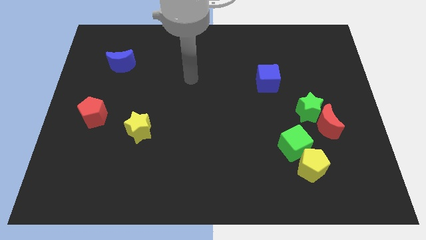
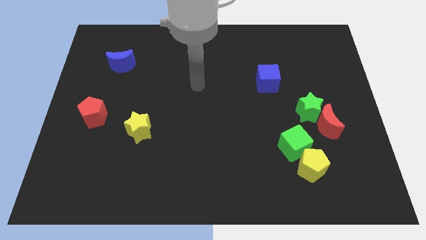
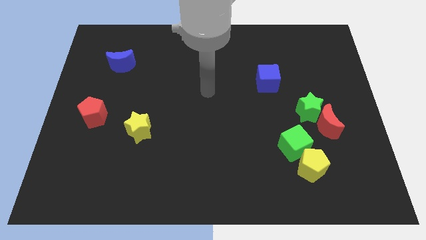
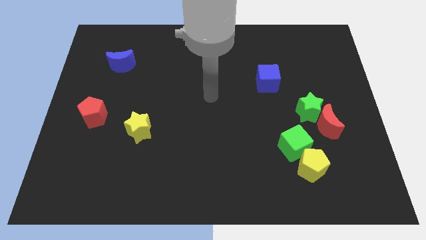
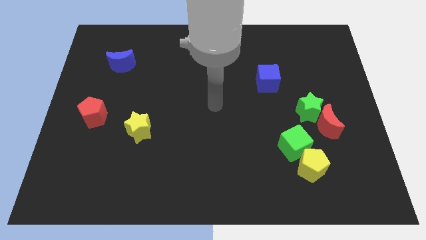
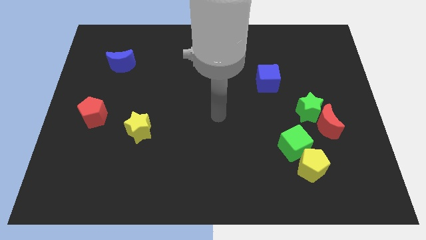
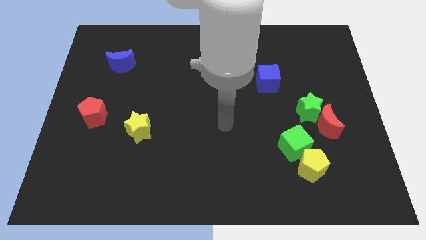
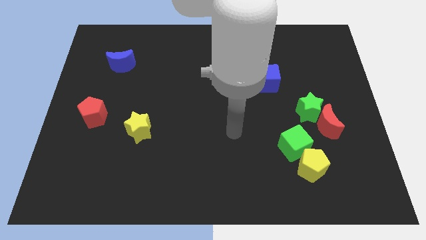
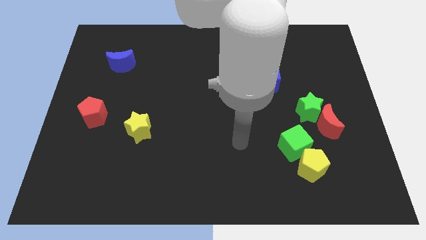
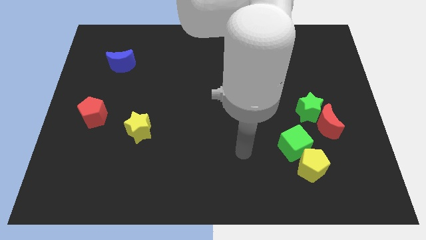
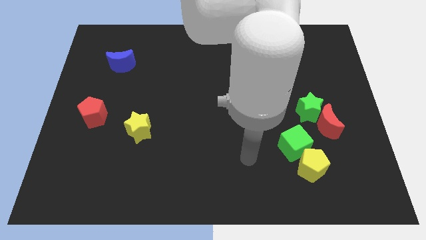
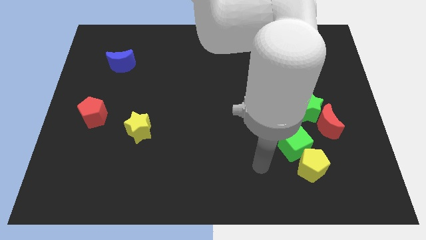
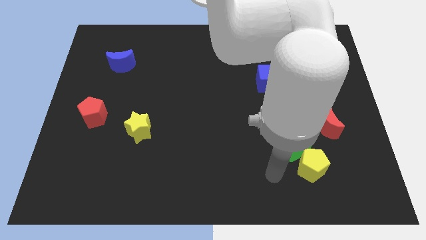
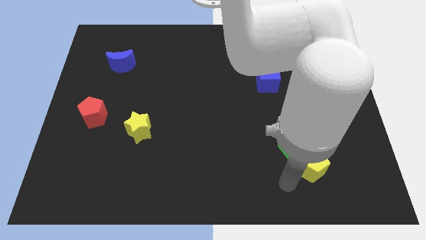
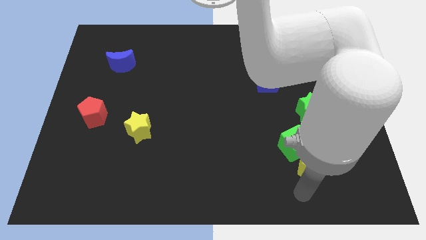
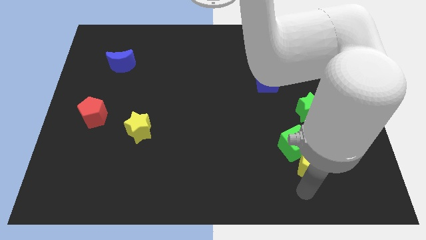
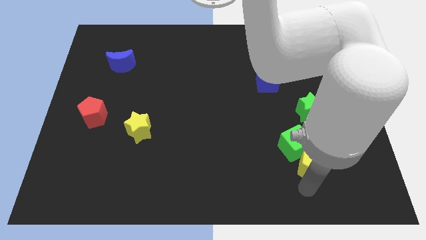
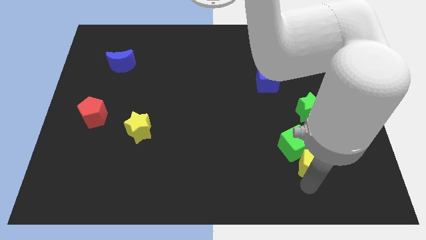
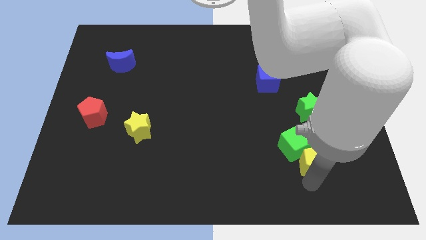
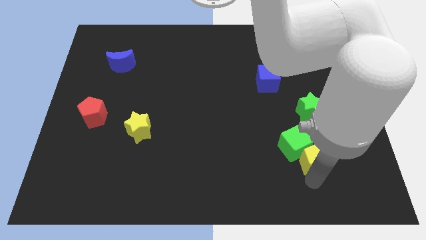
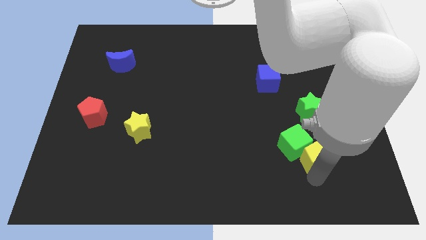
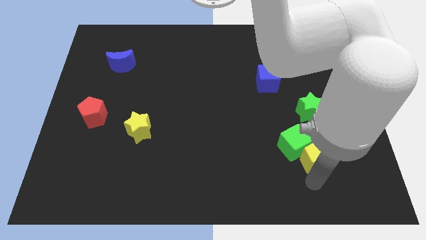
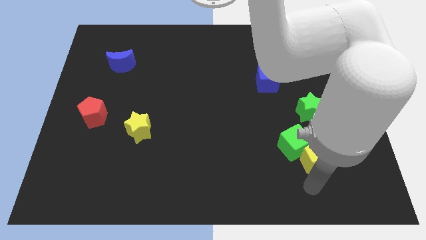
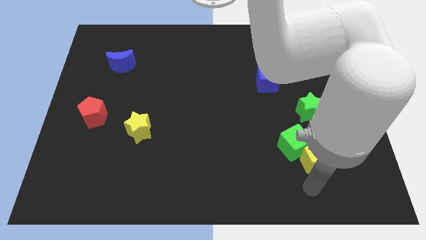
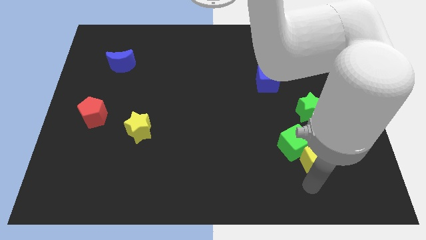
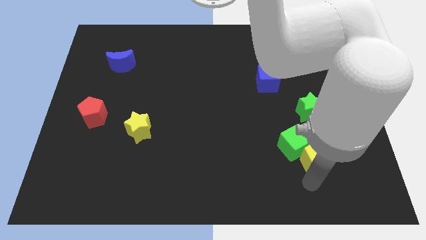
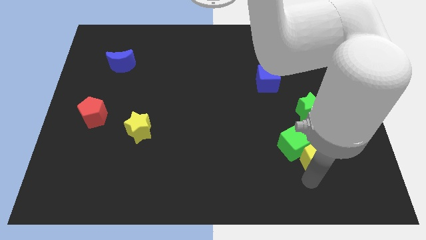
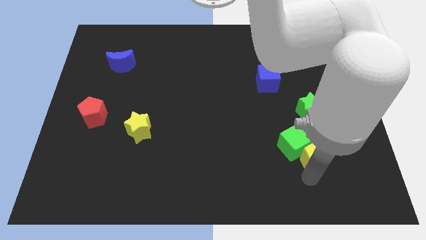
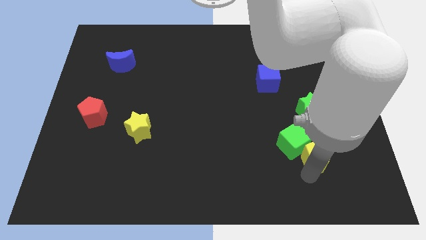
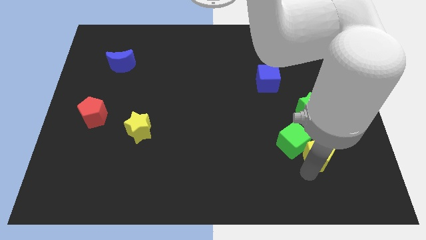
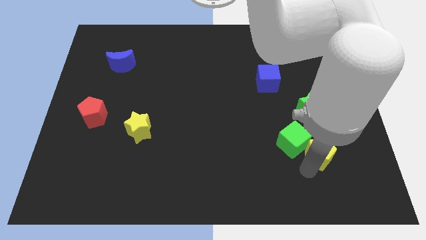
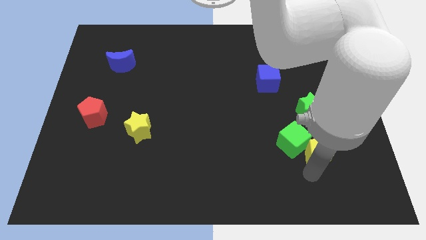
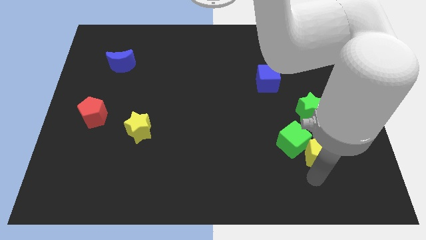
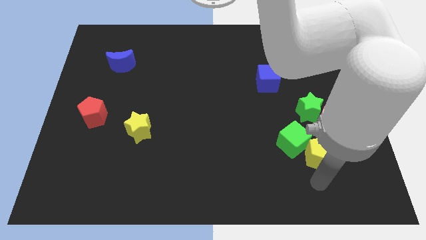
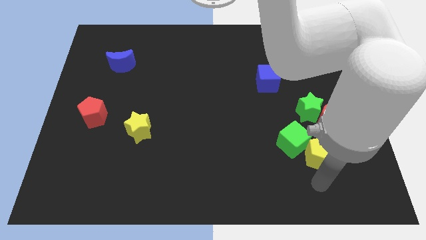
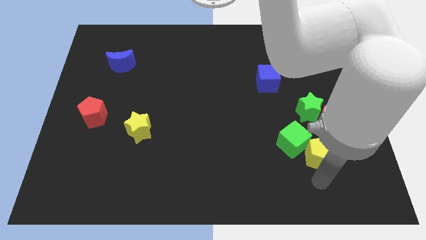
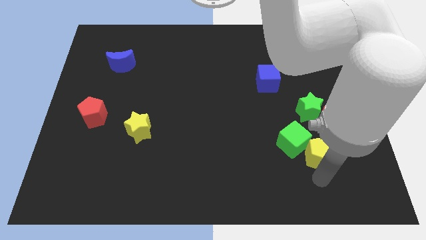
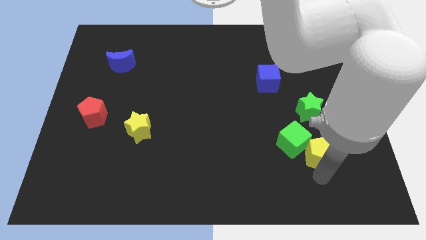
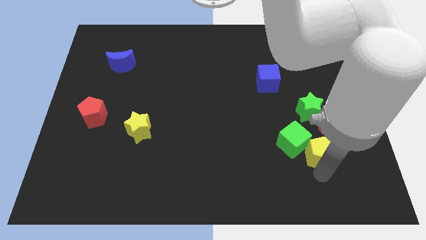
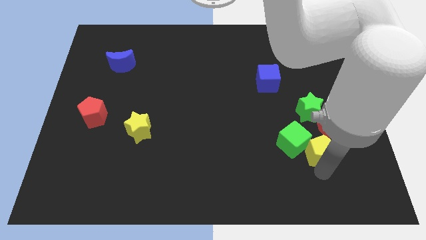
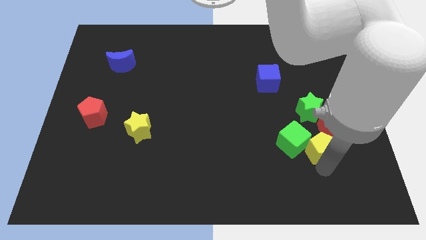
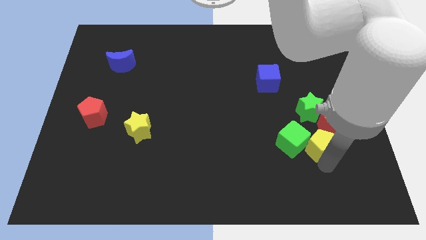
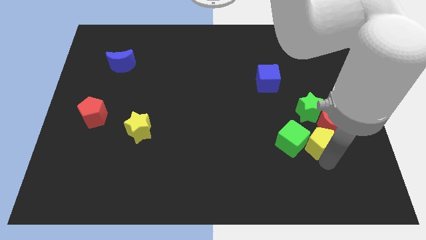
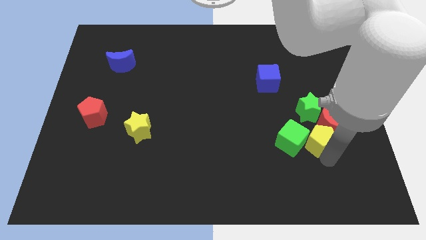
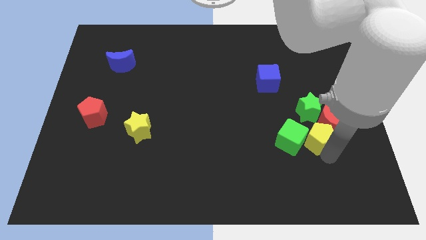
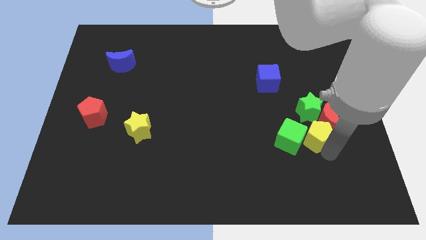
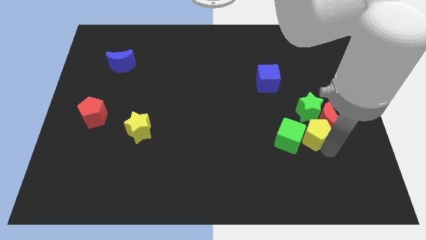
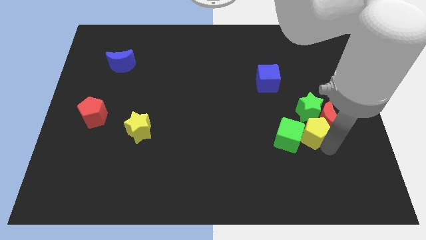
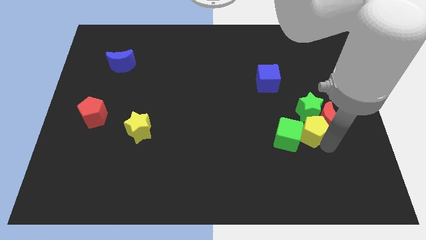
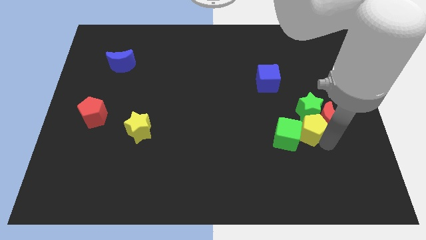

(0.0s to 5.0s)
move the yellow pentagon to the green star

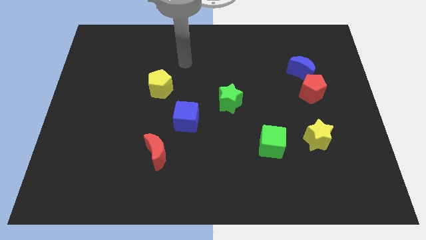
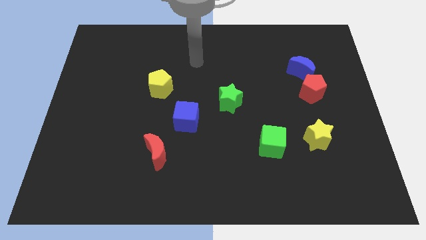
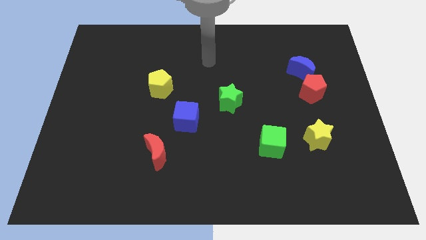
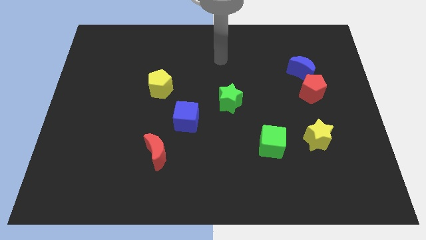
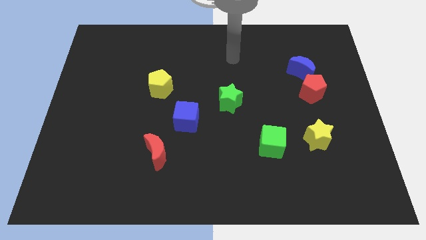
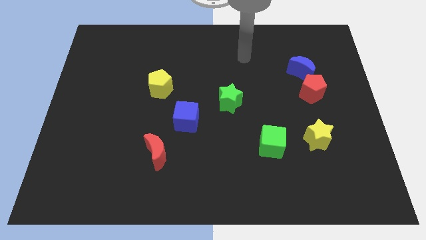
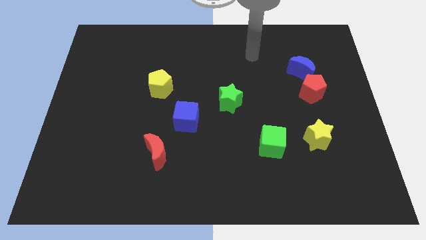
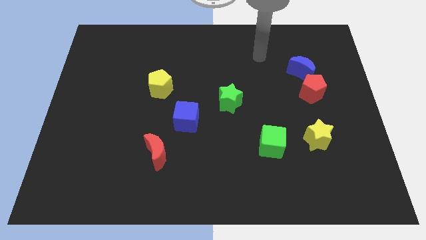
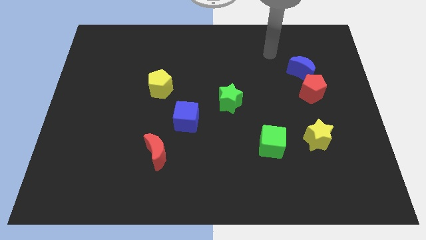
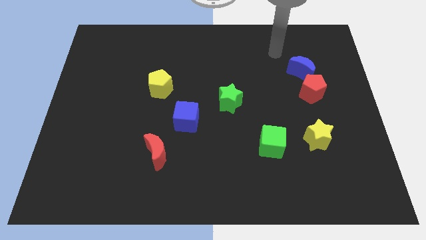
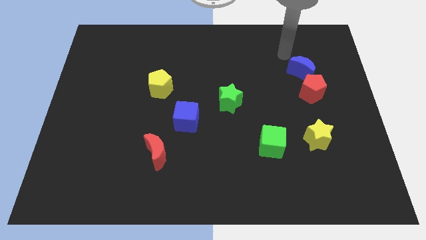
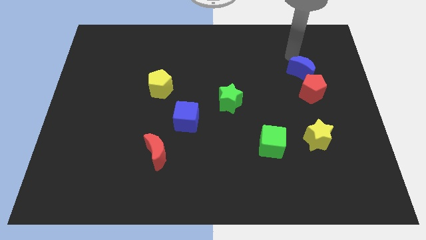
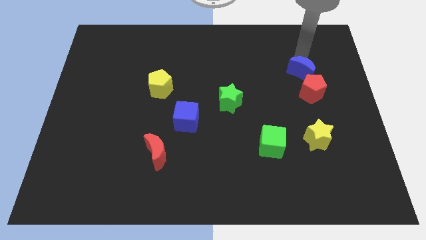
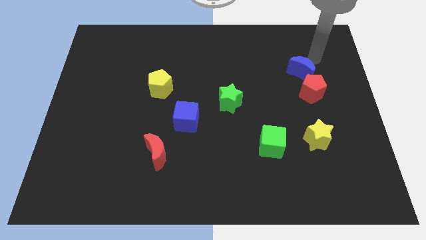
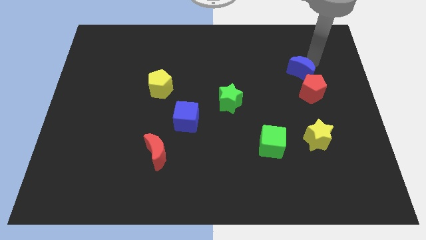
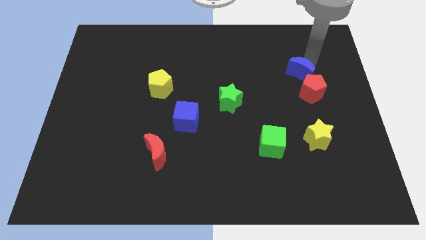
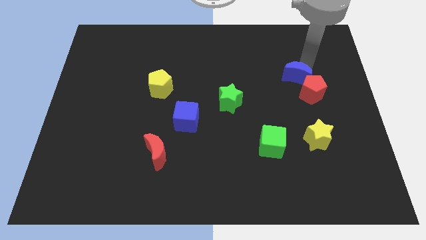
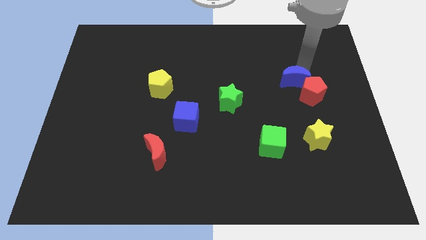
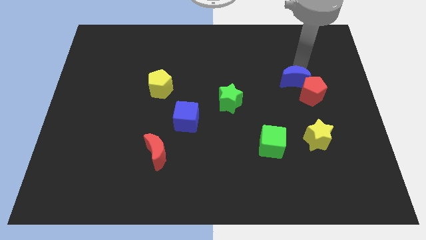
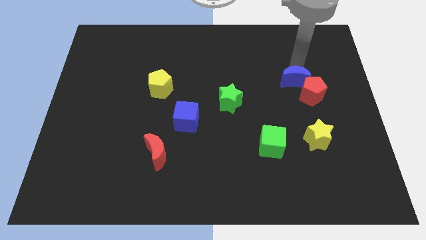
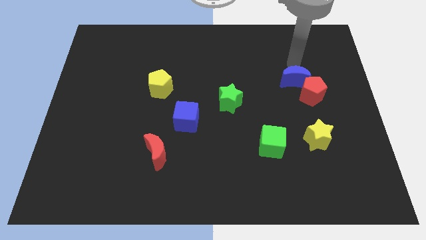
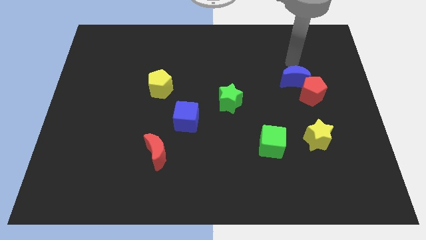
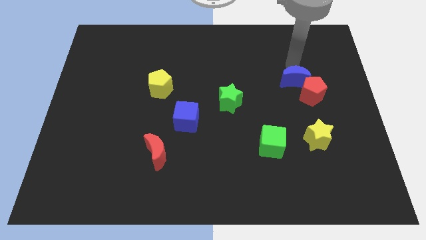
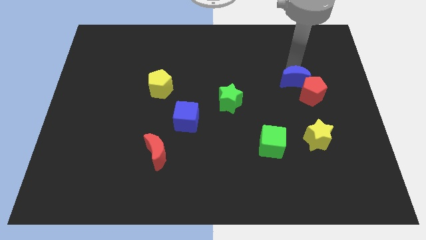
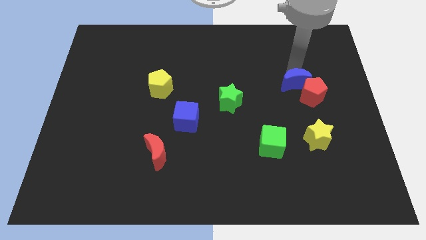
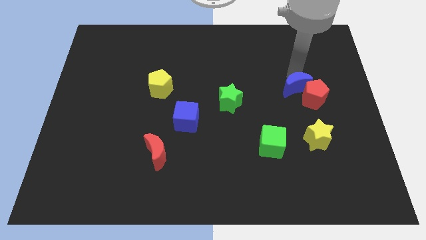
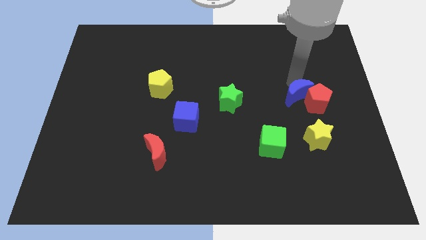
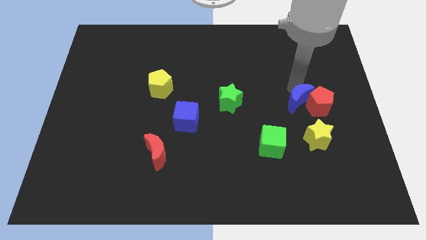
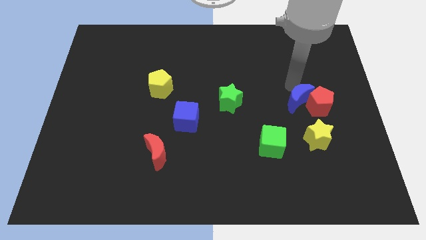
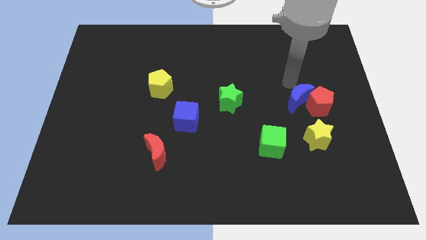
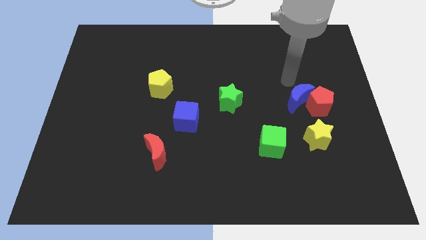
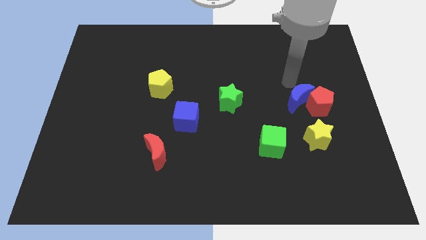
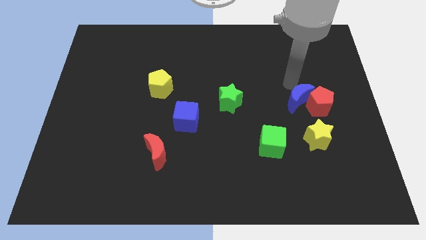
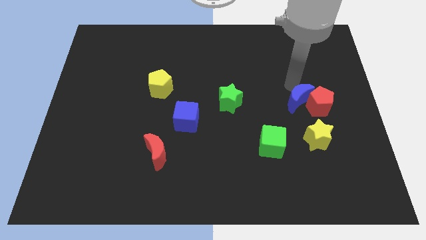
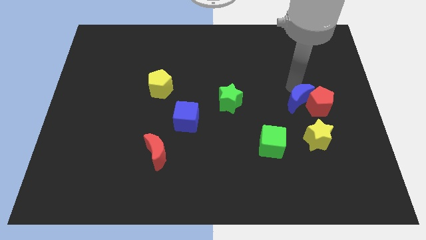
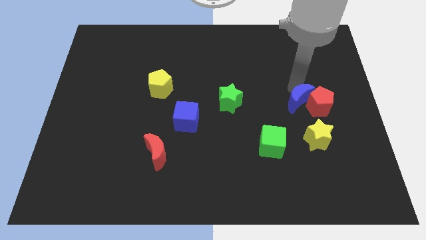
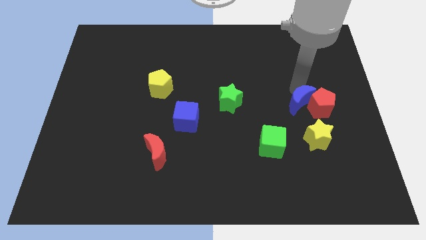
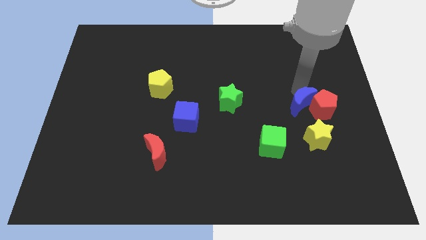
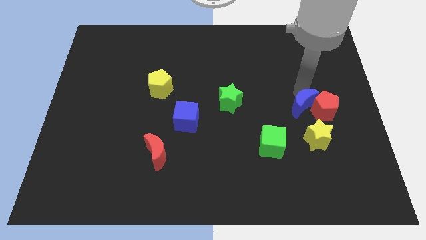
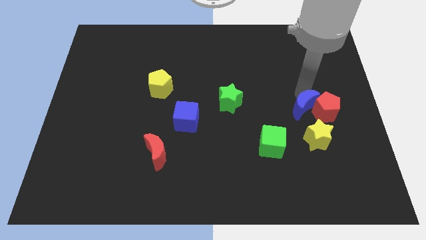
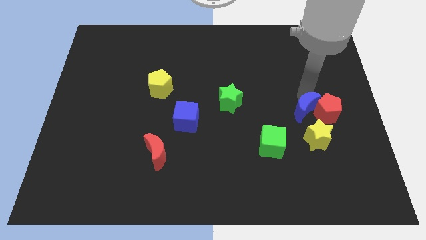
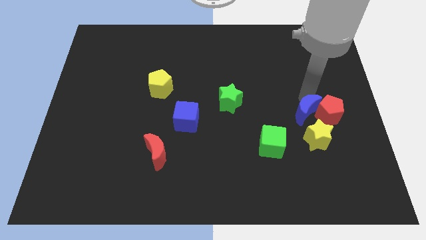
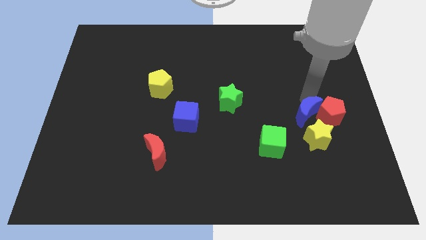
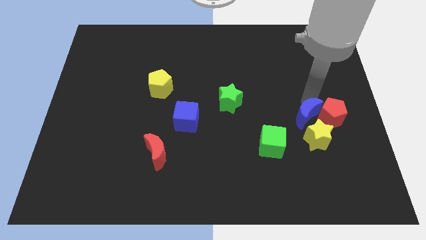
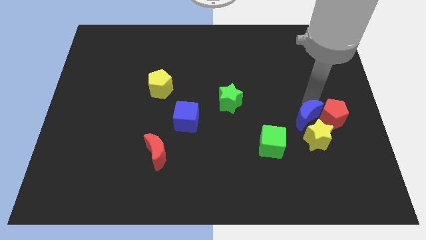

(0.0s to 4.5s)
move the blue moon towards the yellow star
